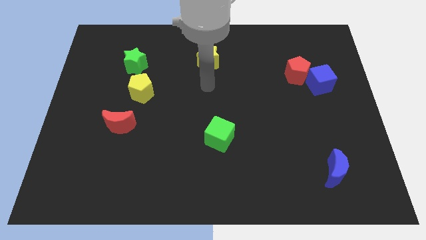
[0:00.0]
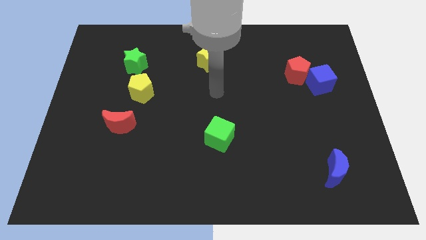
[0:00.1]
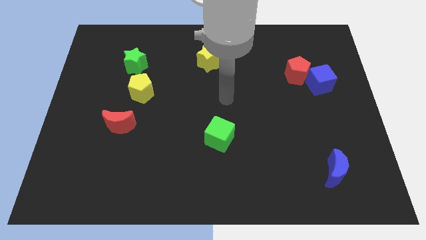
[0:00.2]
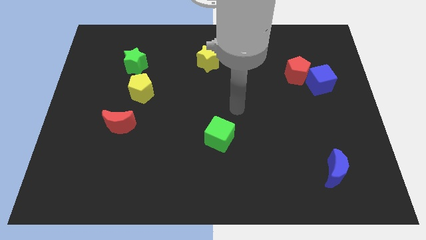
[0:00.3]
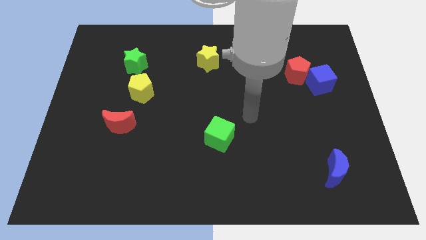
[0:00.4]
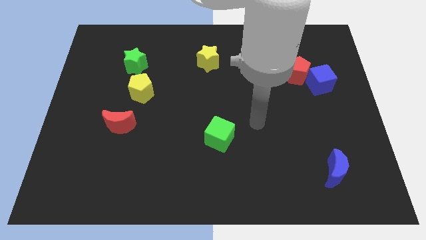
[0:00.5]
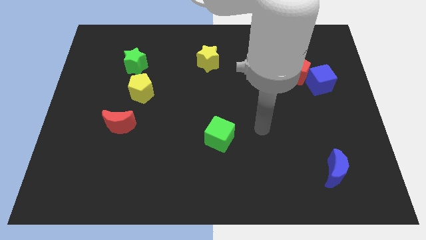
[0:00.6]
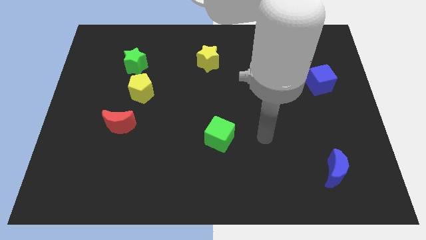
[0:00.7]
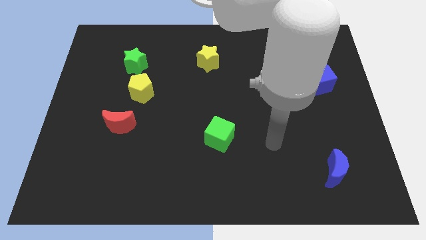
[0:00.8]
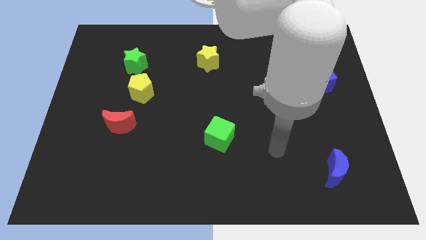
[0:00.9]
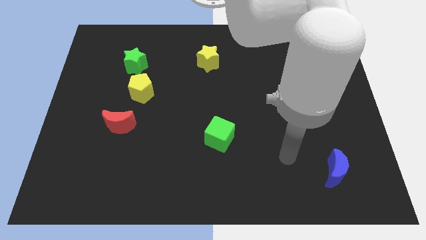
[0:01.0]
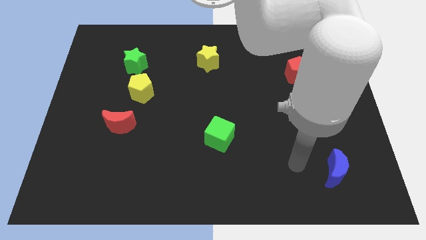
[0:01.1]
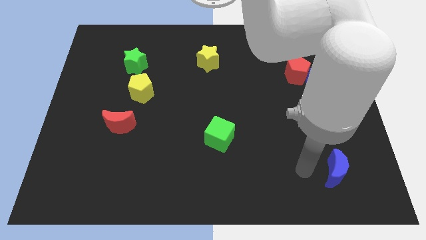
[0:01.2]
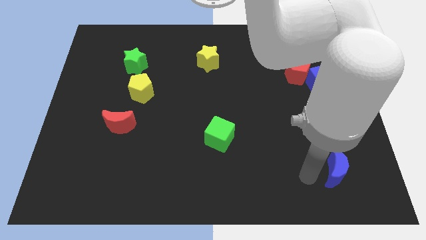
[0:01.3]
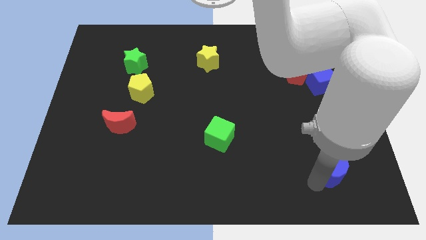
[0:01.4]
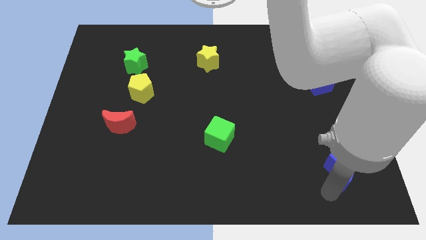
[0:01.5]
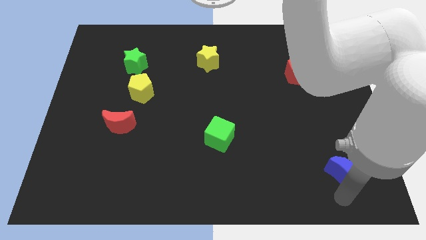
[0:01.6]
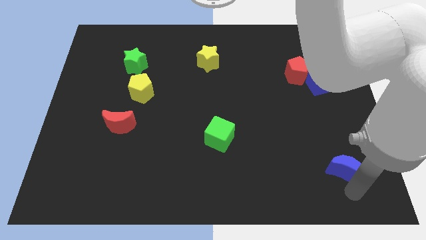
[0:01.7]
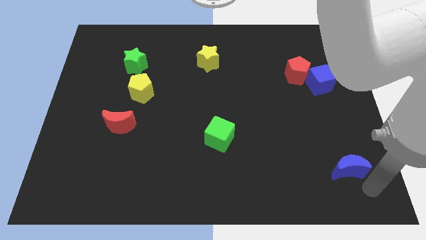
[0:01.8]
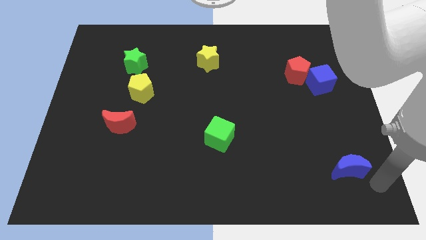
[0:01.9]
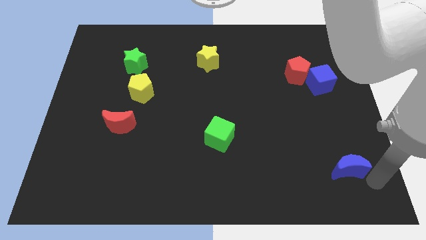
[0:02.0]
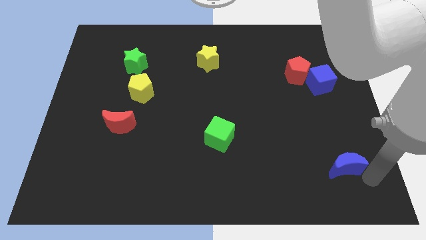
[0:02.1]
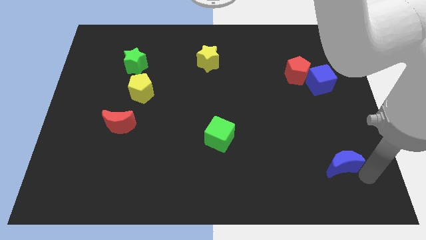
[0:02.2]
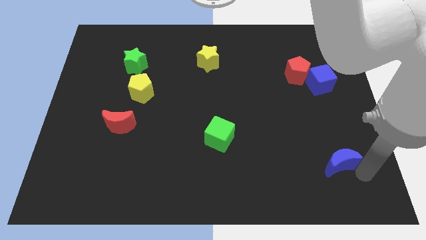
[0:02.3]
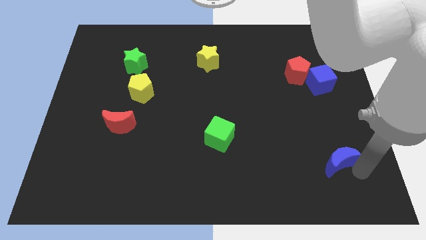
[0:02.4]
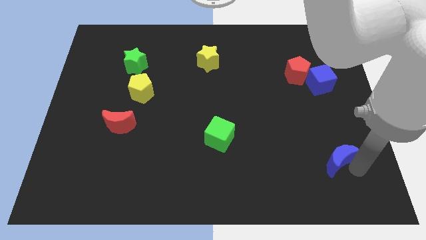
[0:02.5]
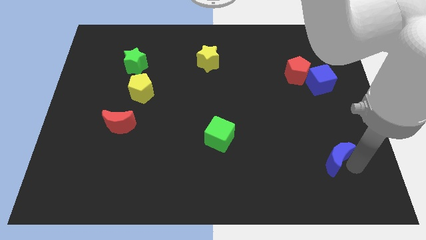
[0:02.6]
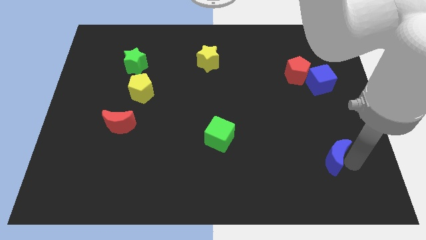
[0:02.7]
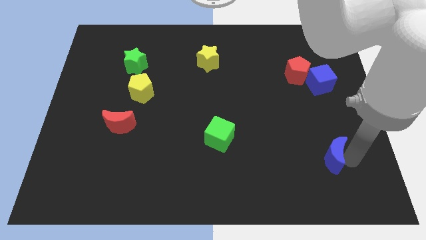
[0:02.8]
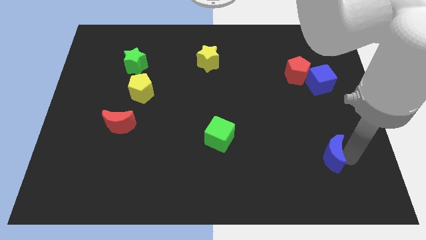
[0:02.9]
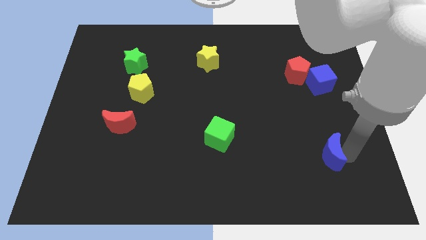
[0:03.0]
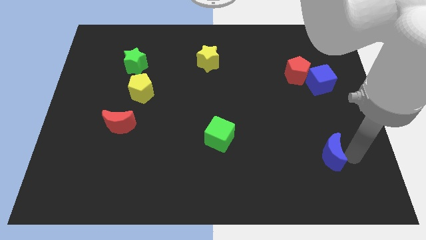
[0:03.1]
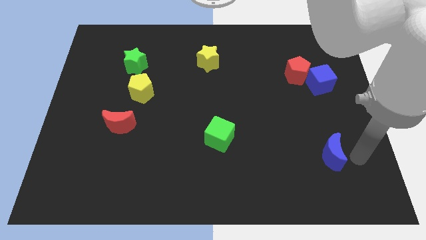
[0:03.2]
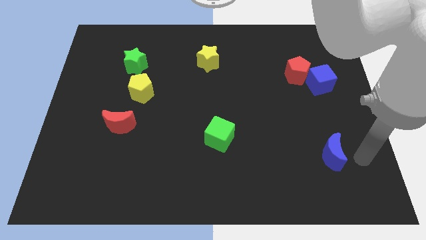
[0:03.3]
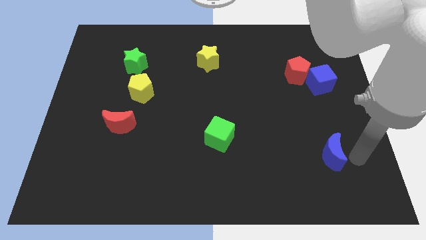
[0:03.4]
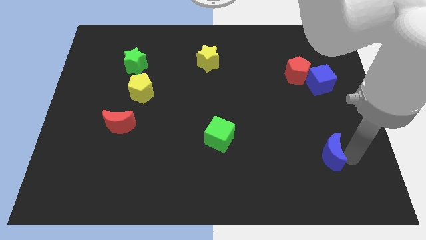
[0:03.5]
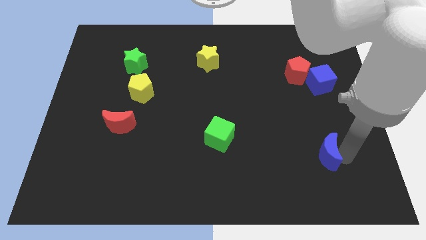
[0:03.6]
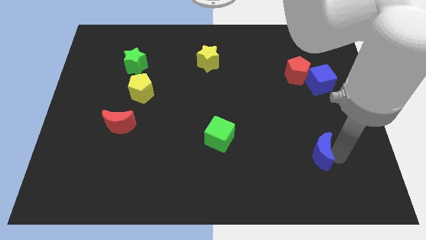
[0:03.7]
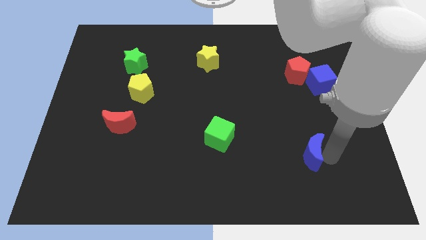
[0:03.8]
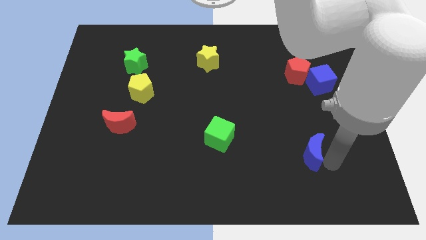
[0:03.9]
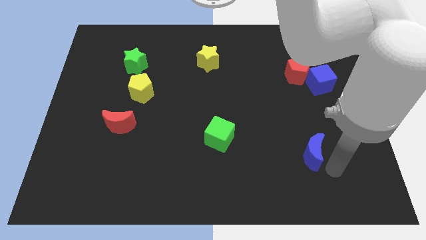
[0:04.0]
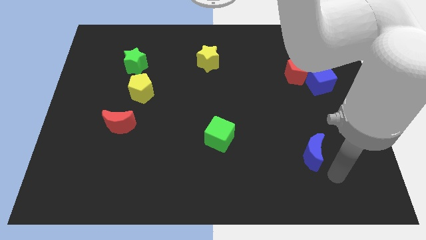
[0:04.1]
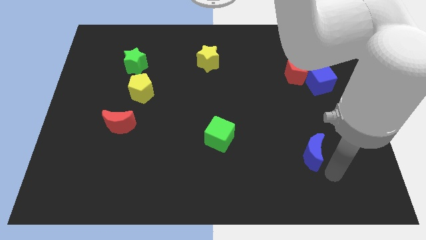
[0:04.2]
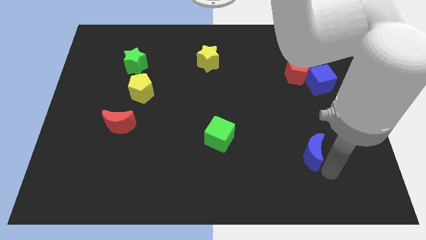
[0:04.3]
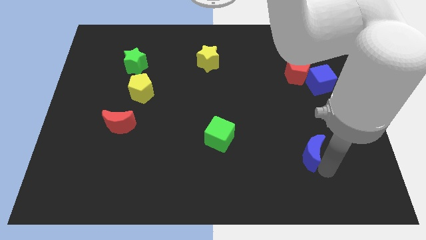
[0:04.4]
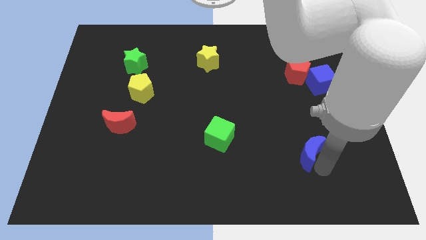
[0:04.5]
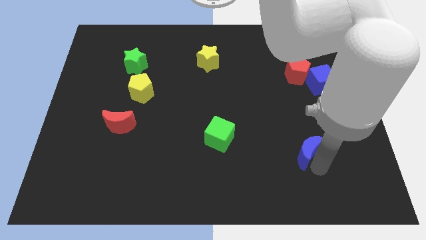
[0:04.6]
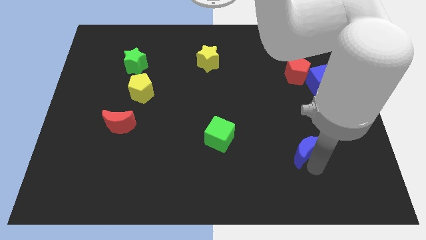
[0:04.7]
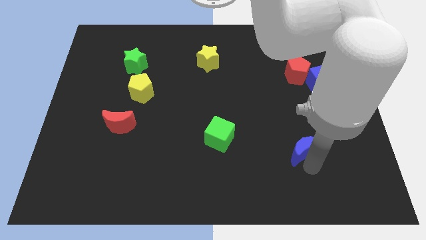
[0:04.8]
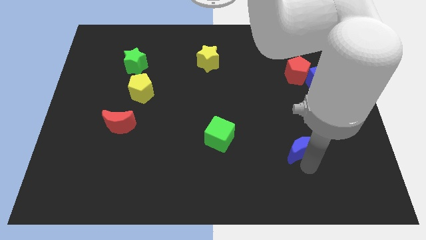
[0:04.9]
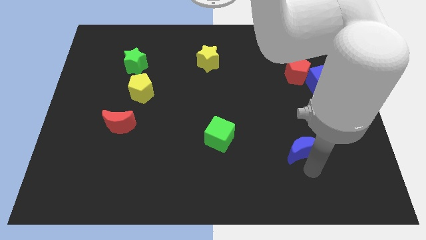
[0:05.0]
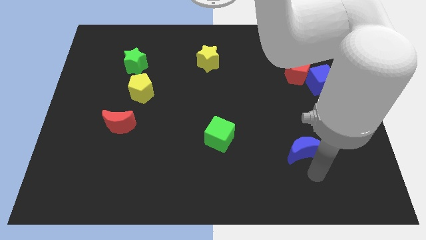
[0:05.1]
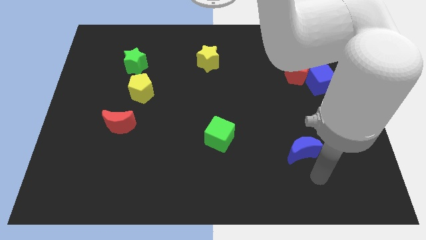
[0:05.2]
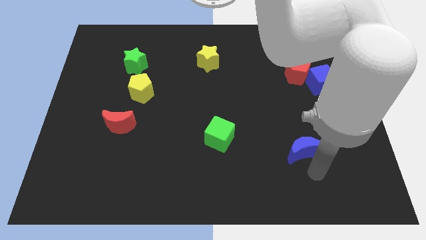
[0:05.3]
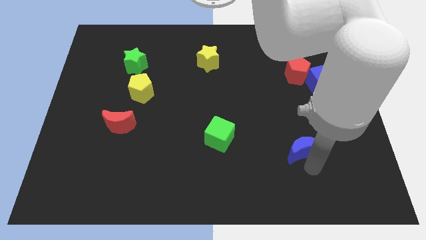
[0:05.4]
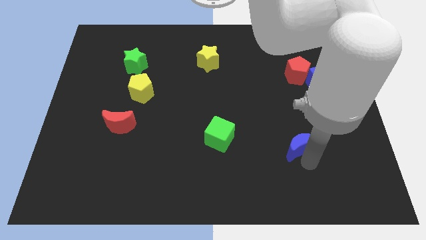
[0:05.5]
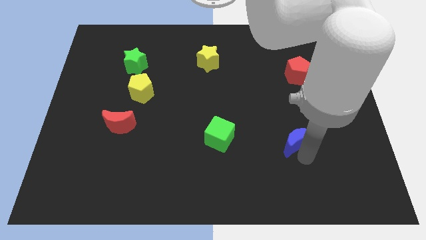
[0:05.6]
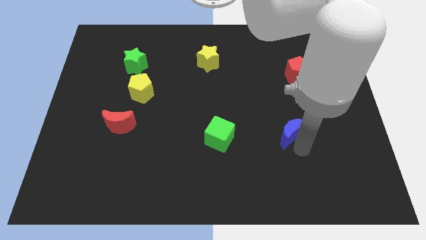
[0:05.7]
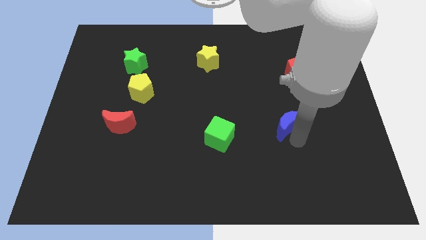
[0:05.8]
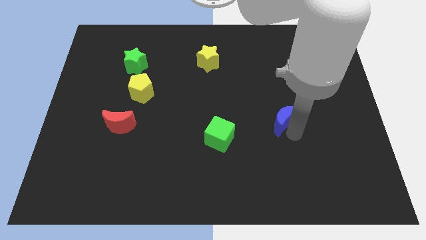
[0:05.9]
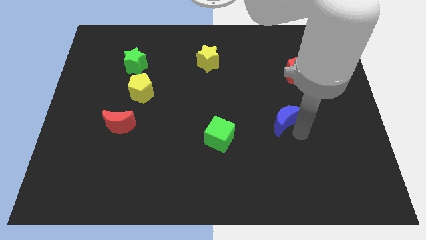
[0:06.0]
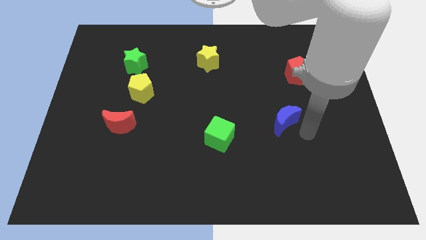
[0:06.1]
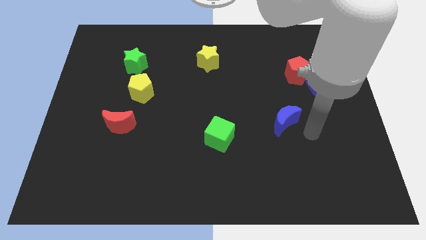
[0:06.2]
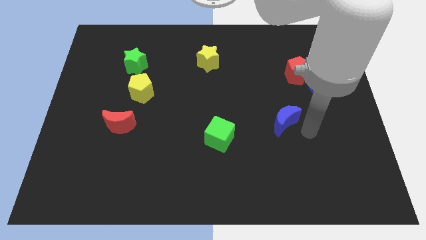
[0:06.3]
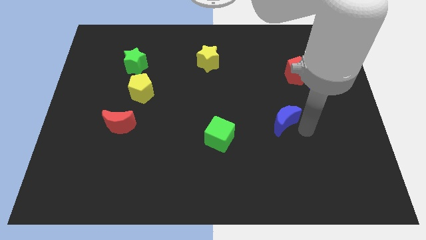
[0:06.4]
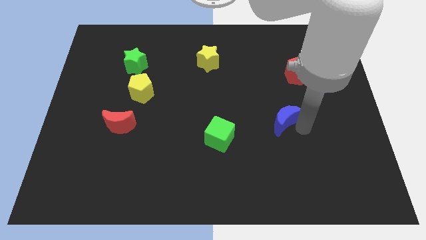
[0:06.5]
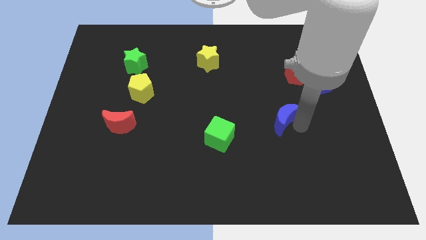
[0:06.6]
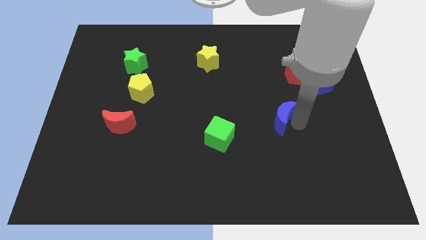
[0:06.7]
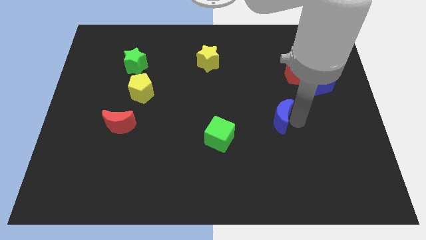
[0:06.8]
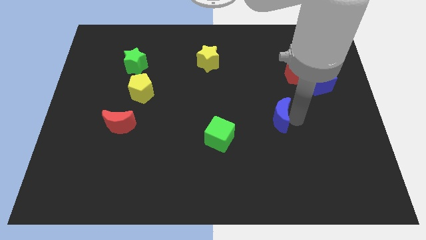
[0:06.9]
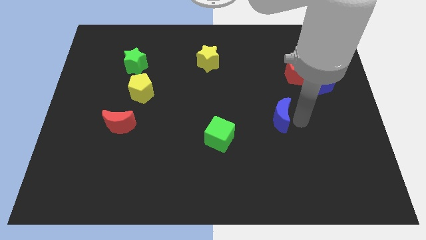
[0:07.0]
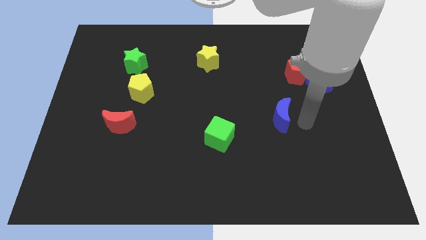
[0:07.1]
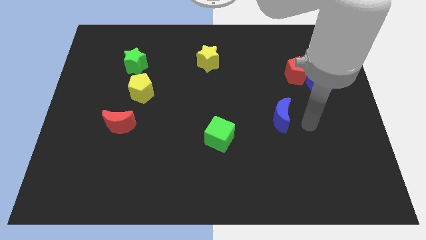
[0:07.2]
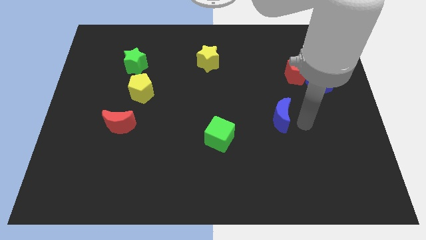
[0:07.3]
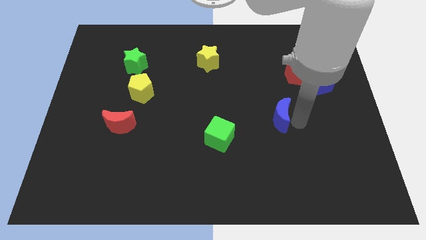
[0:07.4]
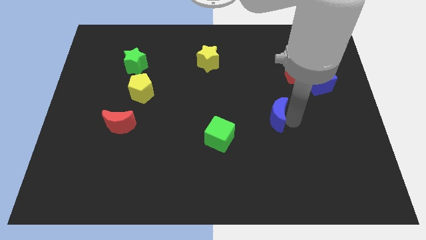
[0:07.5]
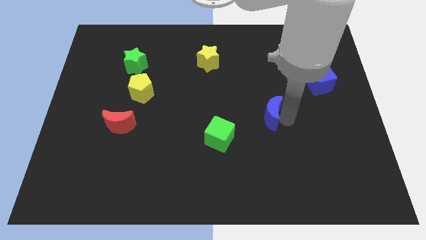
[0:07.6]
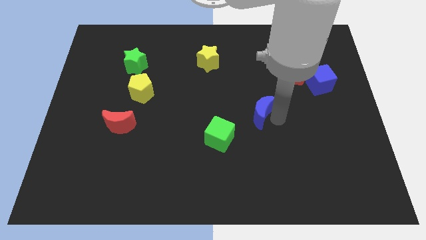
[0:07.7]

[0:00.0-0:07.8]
slide the blue moon diagonally upwards and to the left

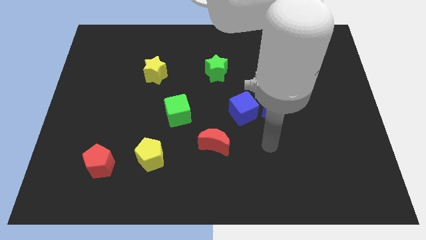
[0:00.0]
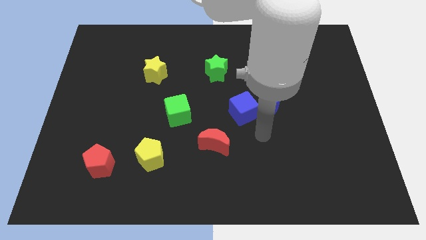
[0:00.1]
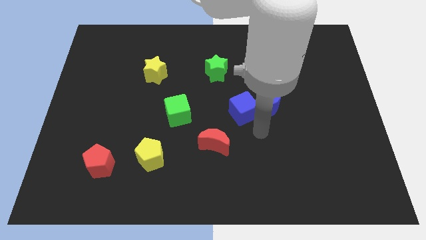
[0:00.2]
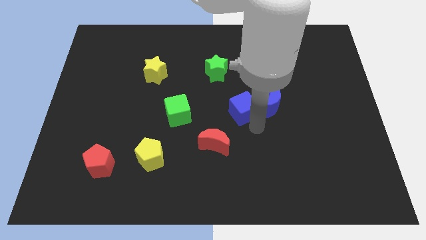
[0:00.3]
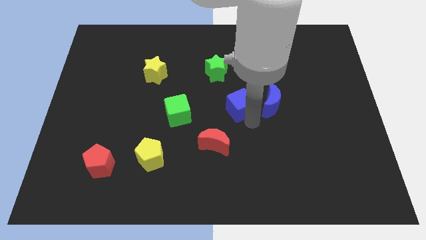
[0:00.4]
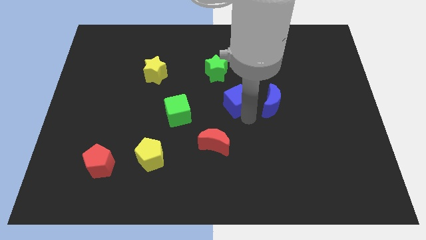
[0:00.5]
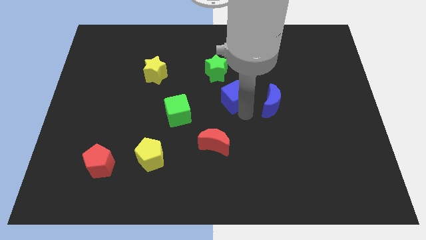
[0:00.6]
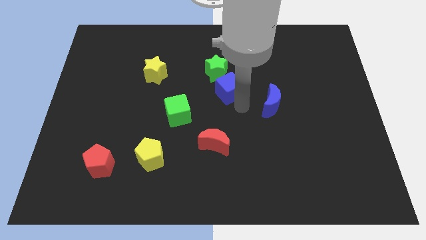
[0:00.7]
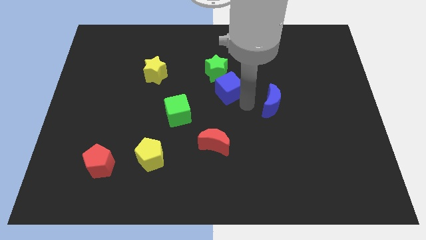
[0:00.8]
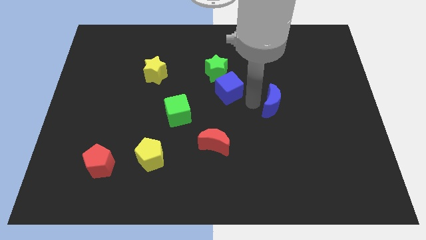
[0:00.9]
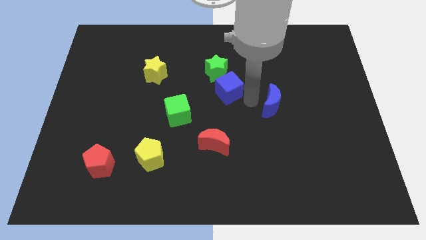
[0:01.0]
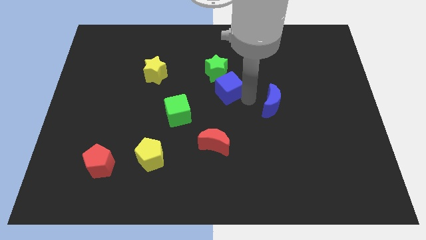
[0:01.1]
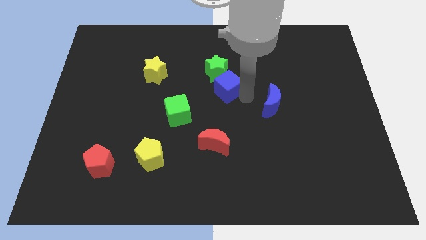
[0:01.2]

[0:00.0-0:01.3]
slightly push the blue cube diagonally up and to the left
